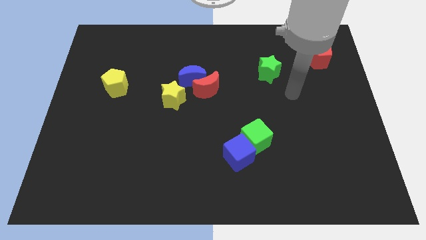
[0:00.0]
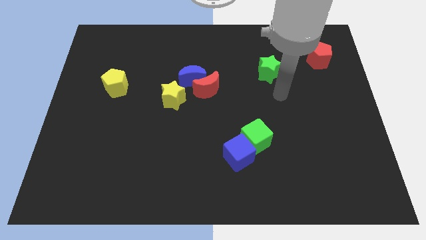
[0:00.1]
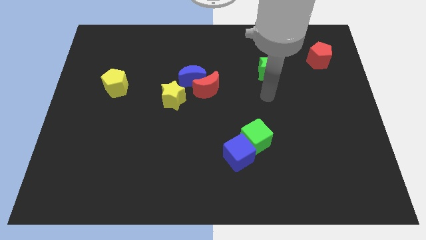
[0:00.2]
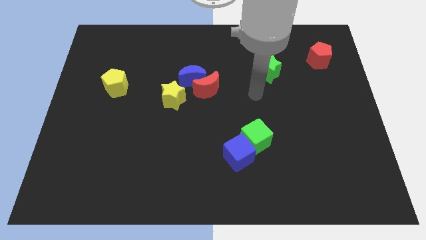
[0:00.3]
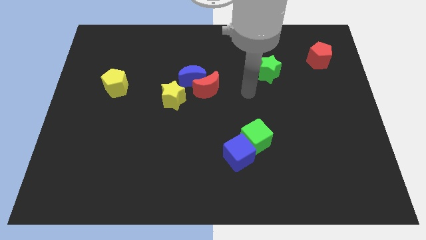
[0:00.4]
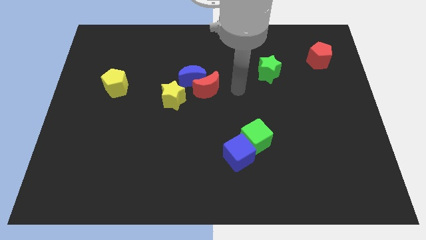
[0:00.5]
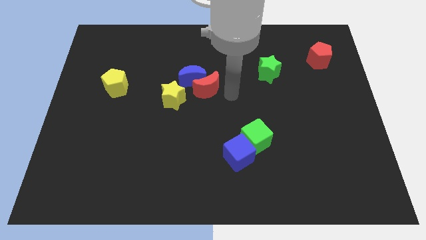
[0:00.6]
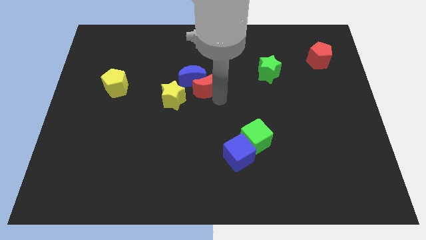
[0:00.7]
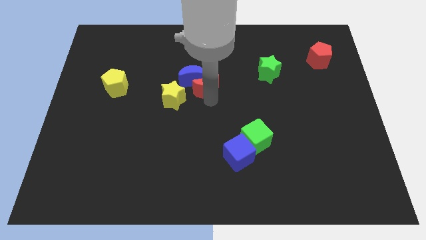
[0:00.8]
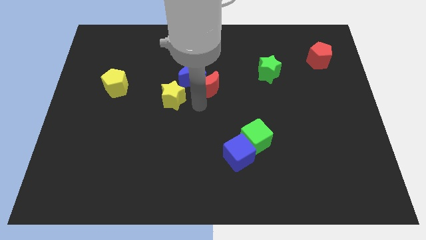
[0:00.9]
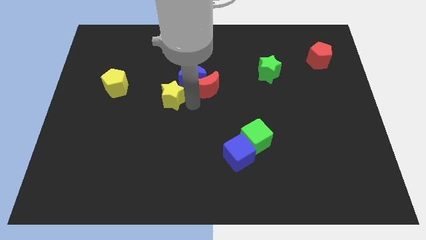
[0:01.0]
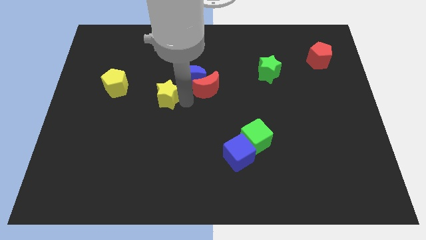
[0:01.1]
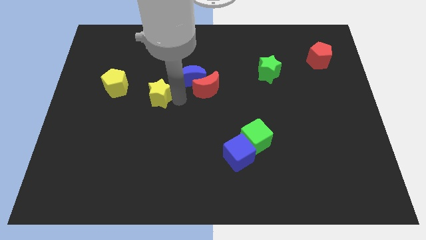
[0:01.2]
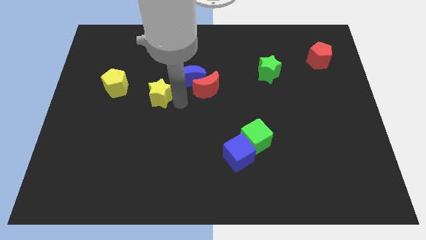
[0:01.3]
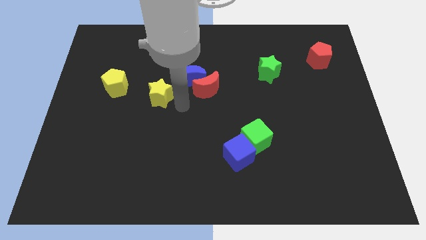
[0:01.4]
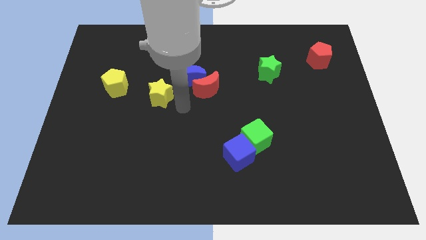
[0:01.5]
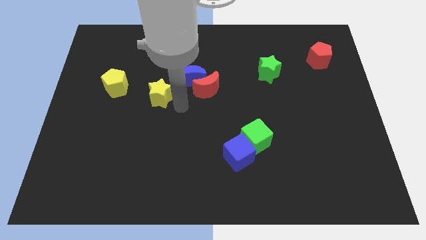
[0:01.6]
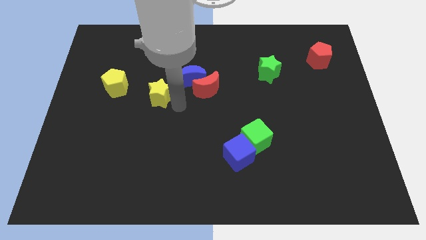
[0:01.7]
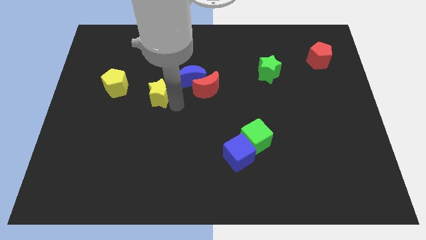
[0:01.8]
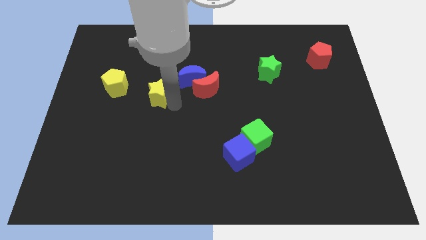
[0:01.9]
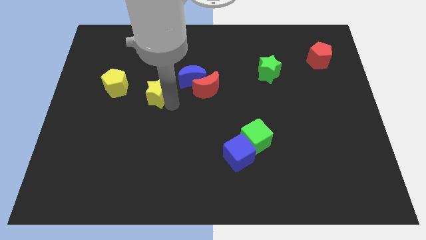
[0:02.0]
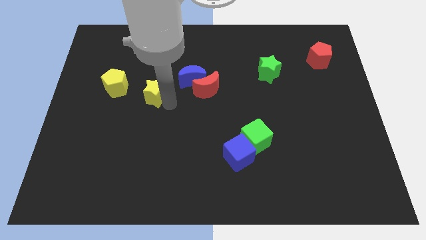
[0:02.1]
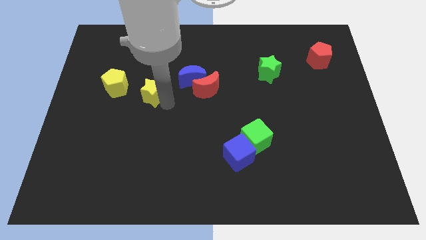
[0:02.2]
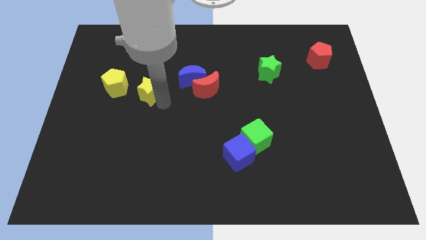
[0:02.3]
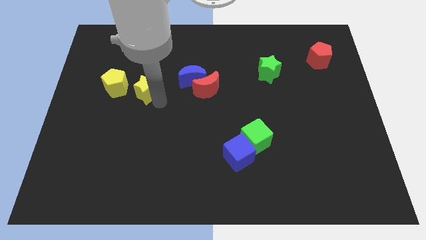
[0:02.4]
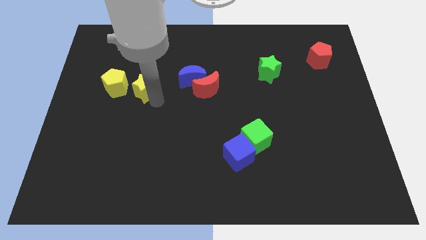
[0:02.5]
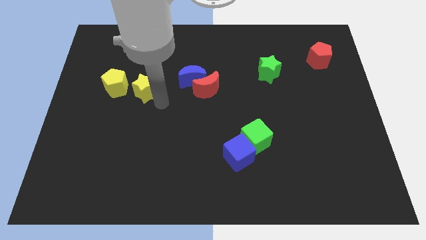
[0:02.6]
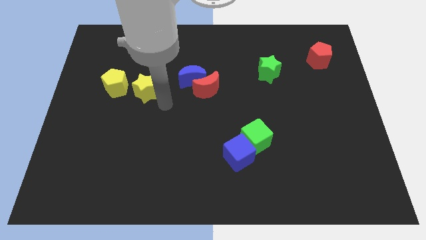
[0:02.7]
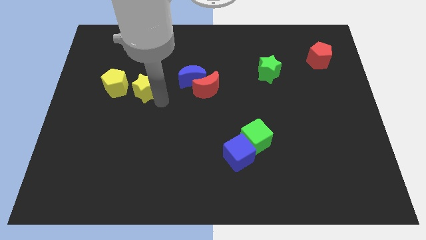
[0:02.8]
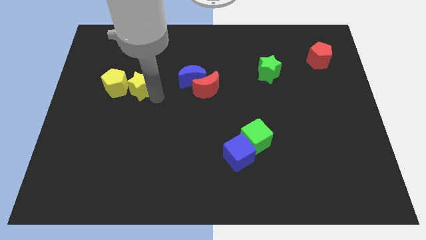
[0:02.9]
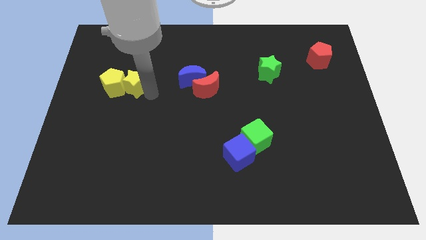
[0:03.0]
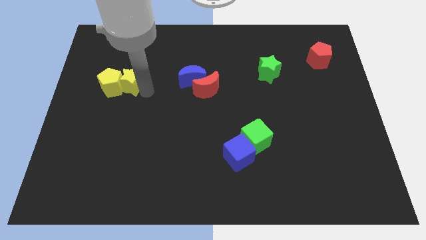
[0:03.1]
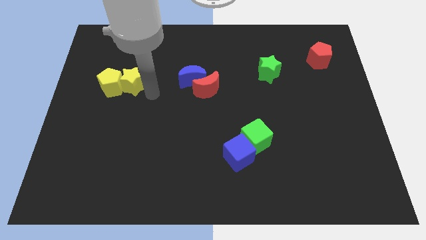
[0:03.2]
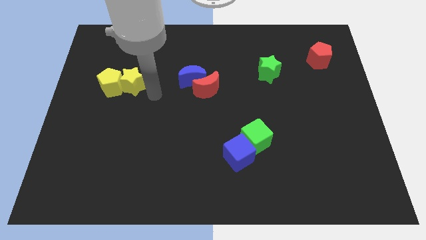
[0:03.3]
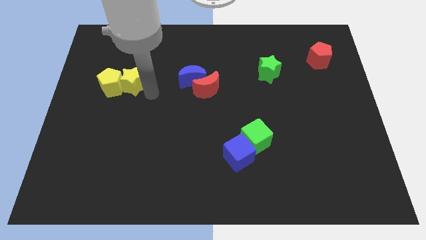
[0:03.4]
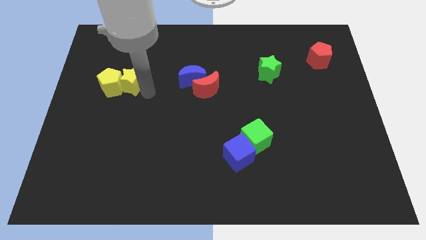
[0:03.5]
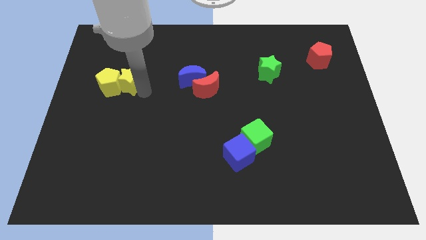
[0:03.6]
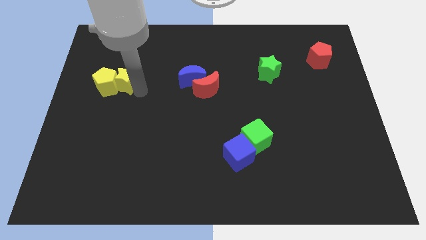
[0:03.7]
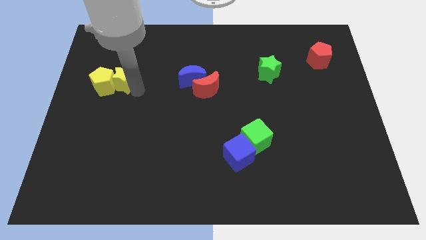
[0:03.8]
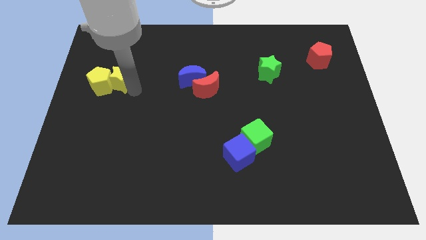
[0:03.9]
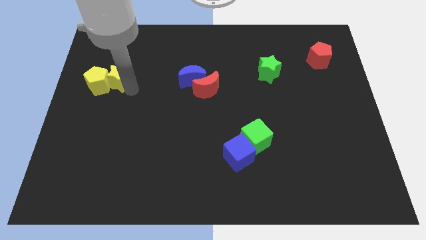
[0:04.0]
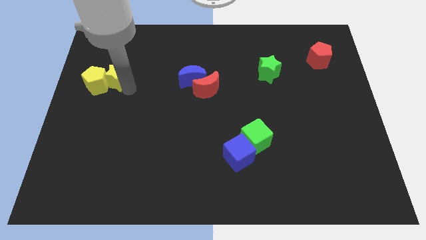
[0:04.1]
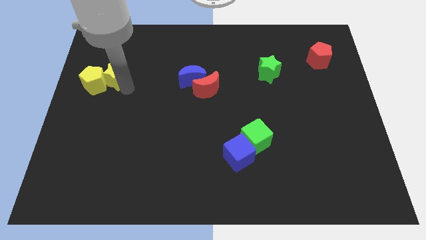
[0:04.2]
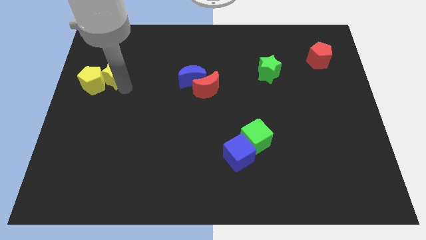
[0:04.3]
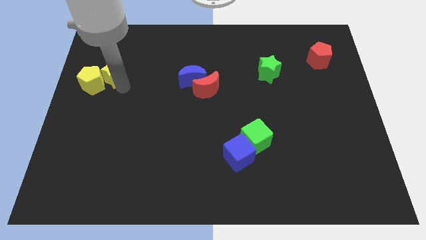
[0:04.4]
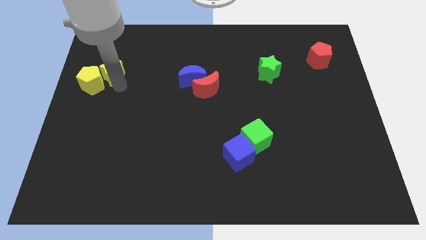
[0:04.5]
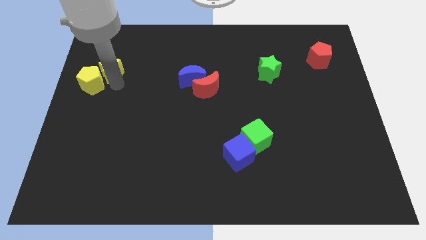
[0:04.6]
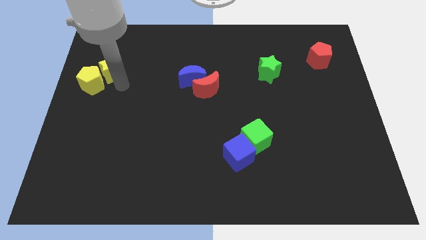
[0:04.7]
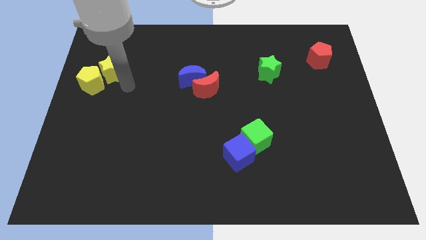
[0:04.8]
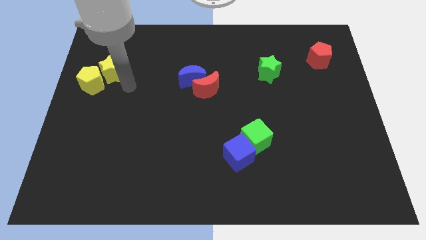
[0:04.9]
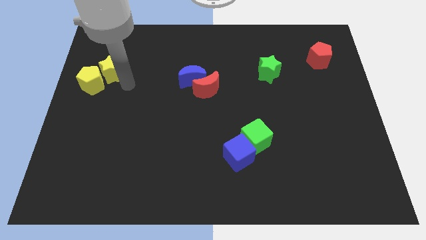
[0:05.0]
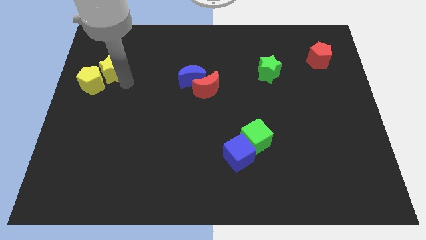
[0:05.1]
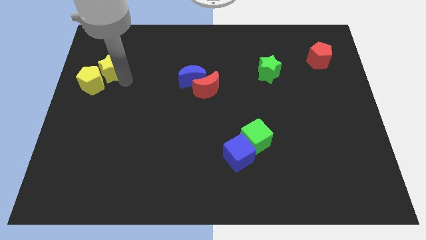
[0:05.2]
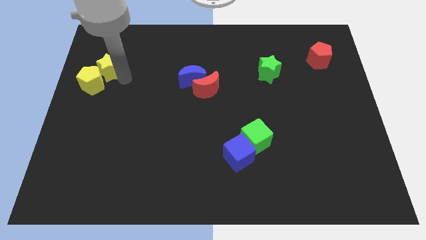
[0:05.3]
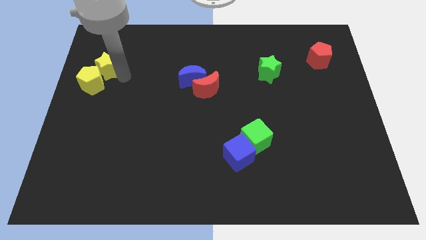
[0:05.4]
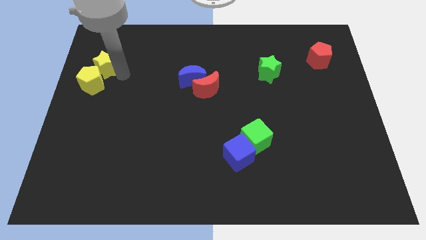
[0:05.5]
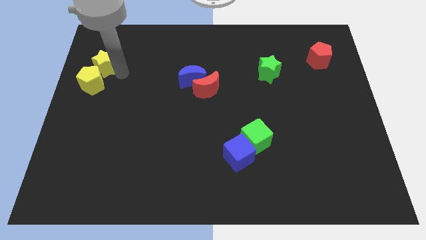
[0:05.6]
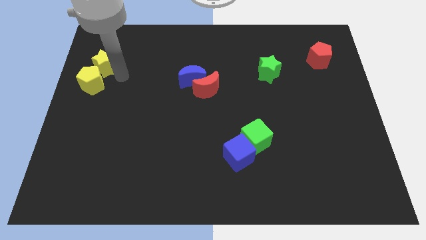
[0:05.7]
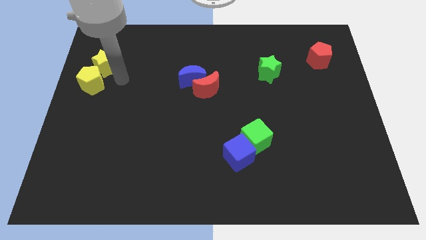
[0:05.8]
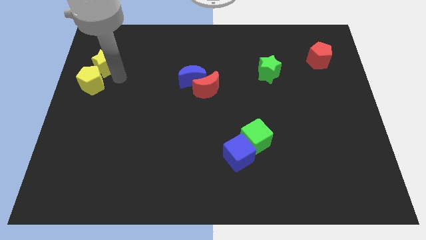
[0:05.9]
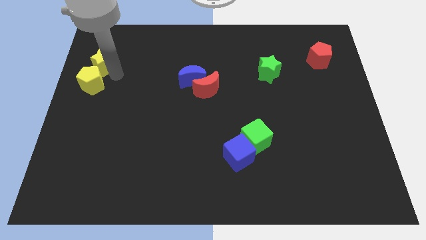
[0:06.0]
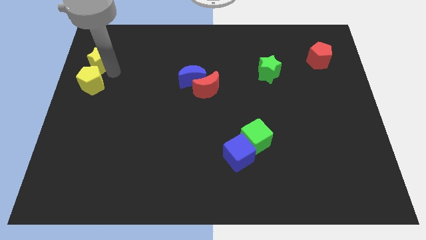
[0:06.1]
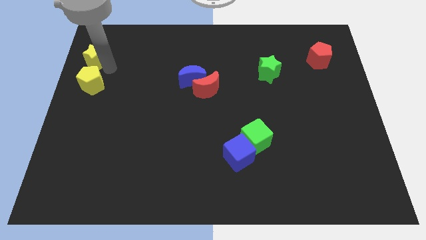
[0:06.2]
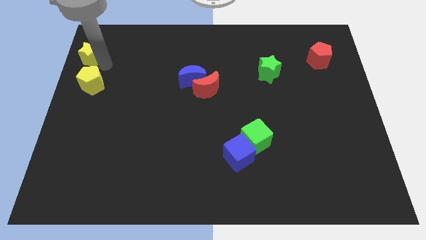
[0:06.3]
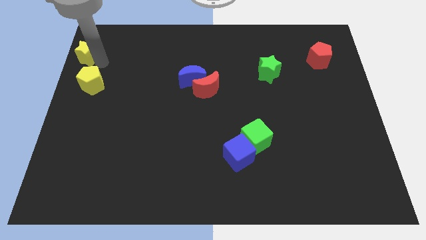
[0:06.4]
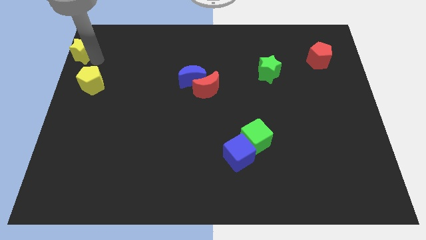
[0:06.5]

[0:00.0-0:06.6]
move the yellow star to the upper left corner

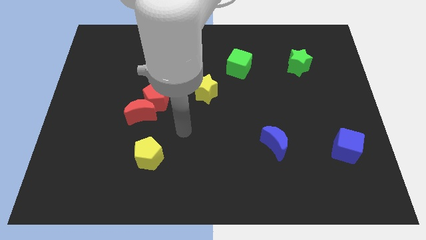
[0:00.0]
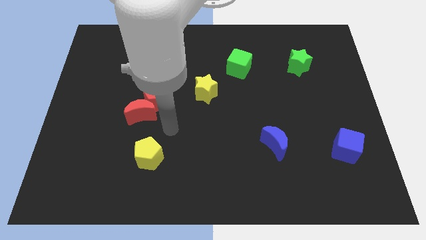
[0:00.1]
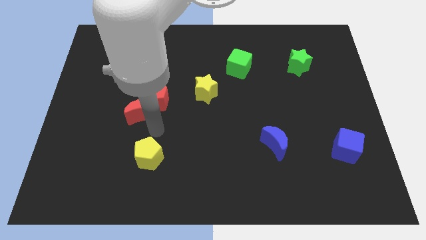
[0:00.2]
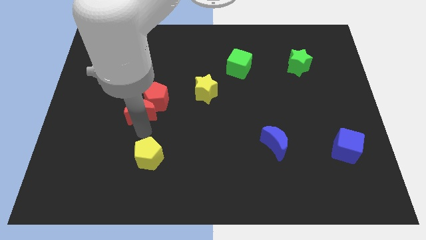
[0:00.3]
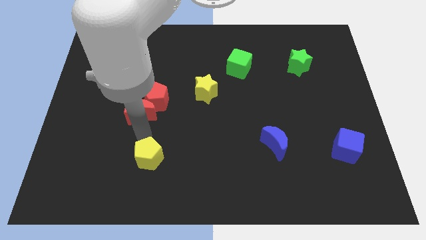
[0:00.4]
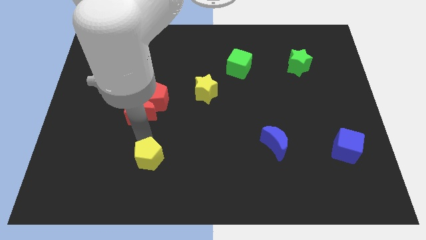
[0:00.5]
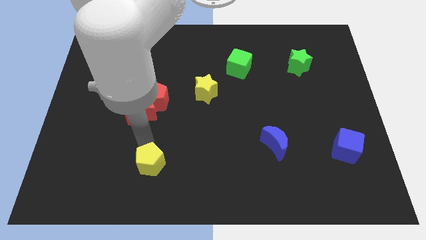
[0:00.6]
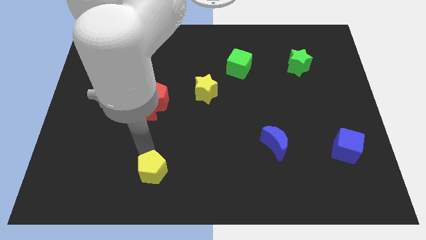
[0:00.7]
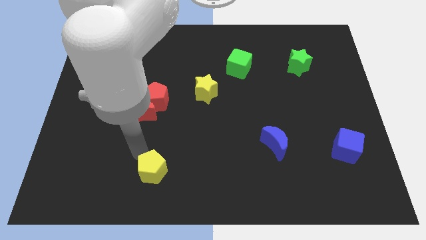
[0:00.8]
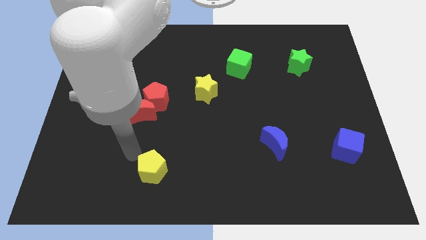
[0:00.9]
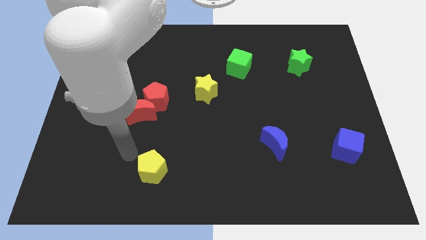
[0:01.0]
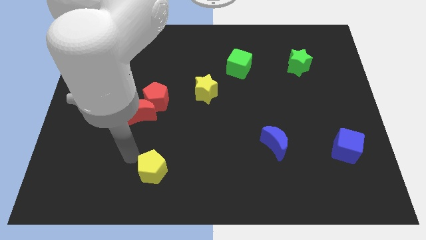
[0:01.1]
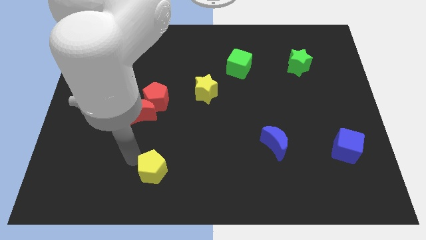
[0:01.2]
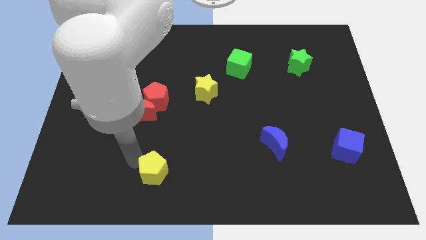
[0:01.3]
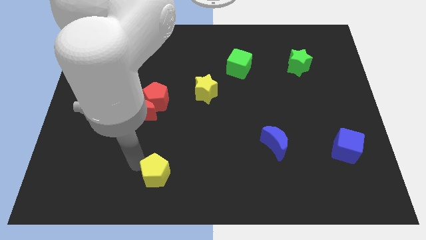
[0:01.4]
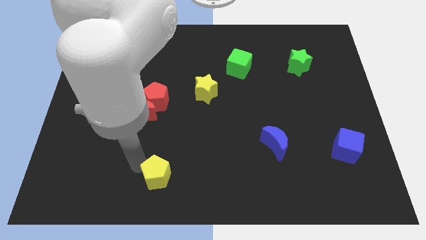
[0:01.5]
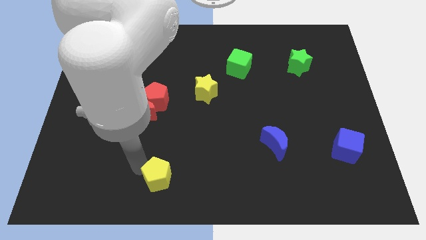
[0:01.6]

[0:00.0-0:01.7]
slide the yellow pentagon to the bottom
